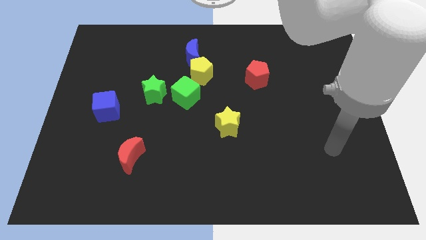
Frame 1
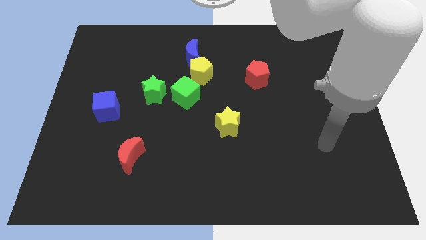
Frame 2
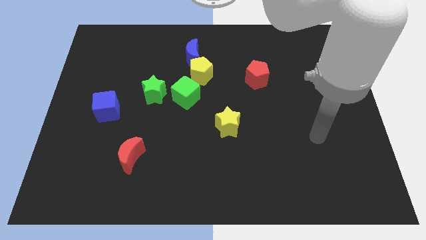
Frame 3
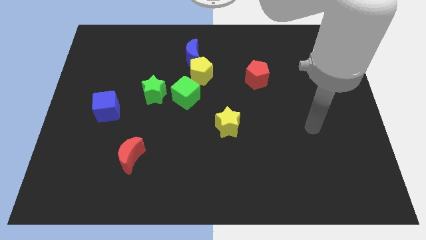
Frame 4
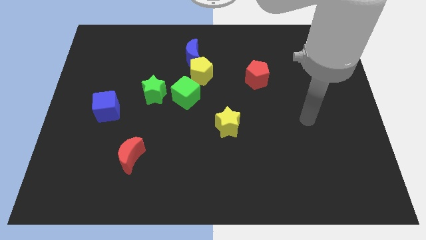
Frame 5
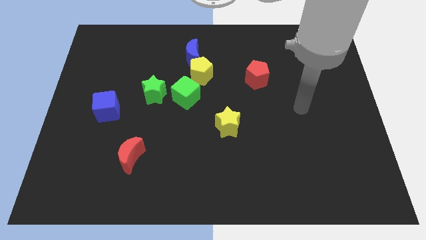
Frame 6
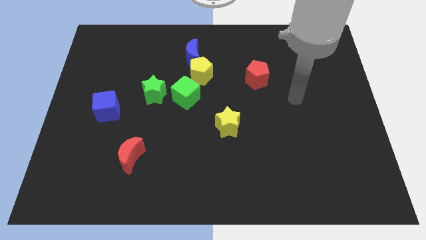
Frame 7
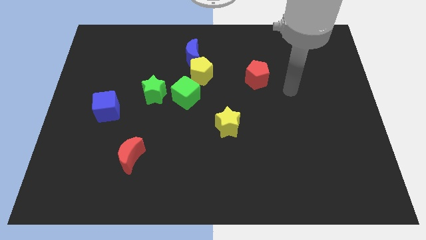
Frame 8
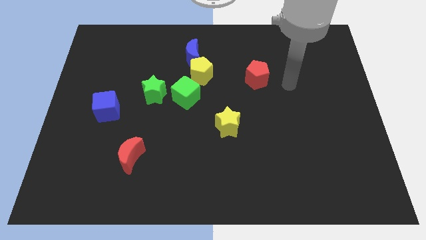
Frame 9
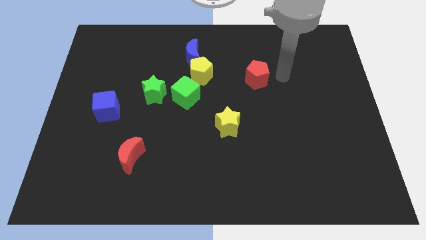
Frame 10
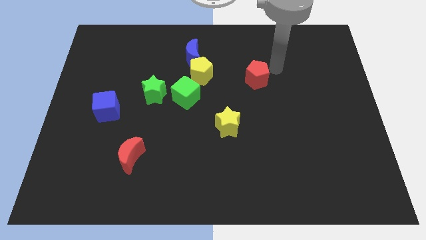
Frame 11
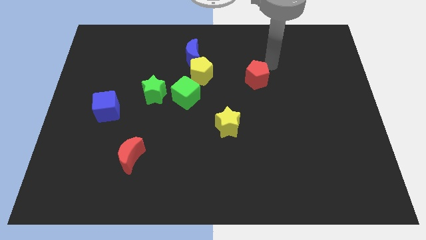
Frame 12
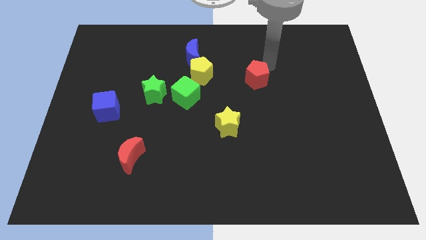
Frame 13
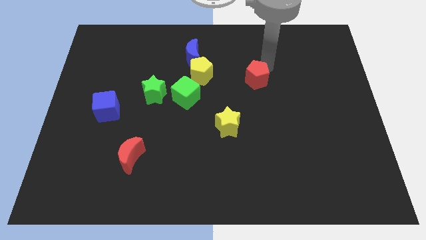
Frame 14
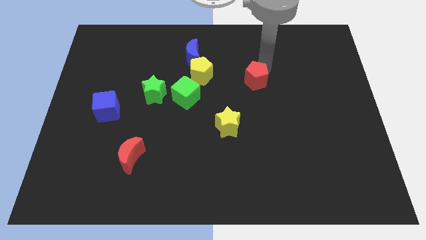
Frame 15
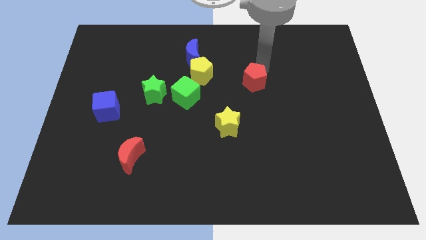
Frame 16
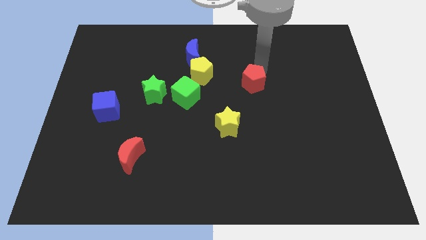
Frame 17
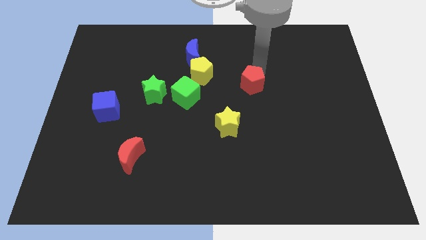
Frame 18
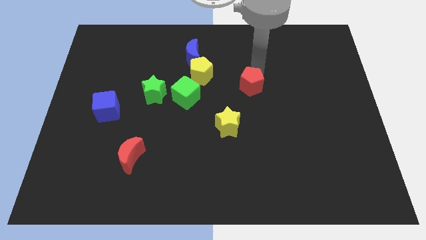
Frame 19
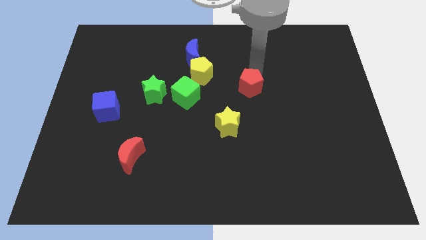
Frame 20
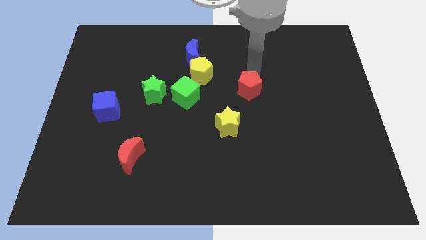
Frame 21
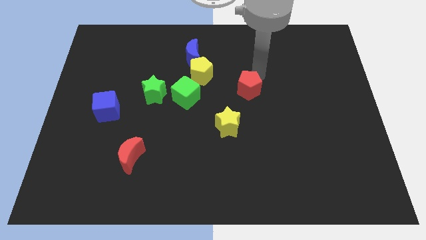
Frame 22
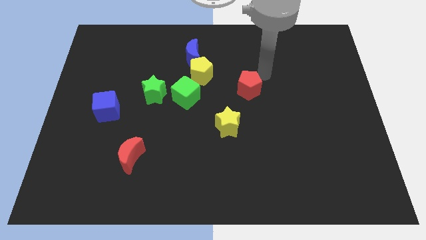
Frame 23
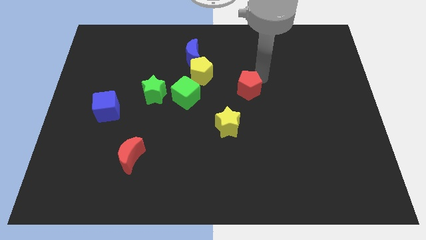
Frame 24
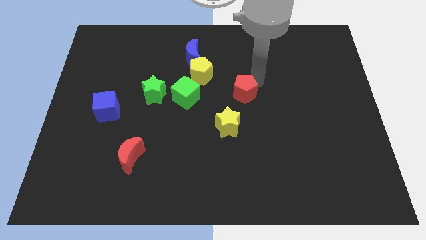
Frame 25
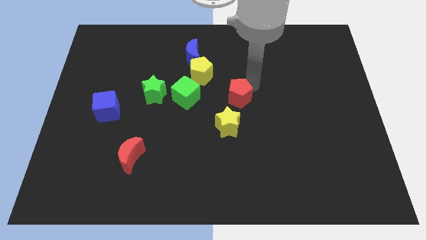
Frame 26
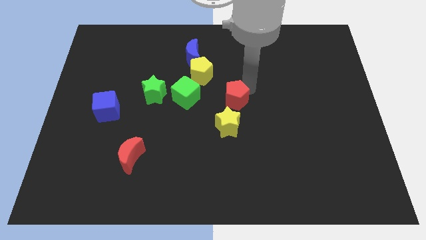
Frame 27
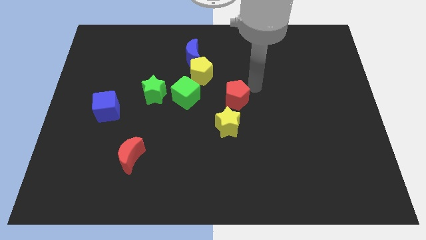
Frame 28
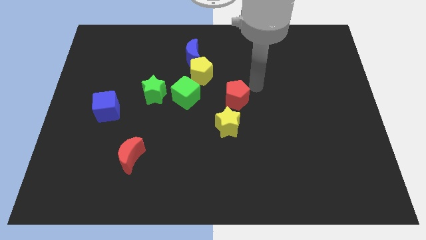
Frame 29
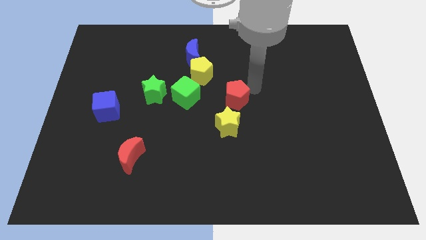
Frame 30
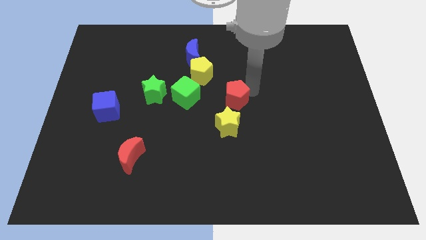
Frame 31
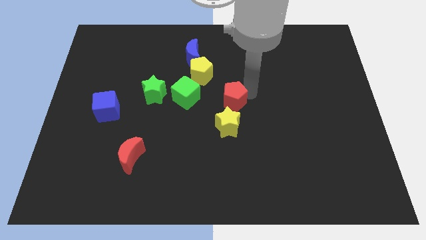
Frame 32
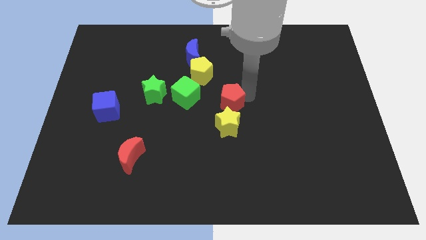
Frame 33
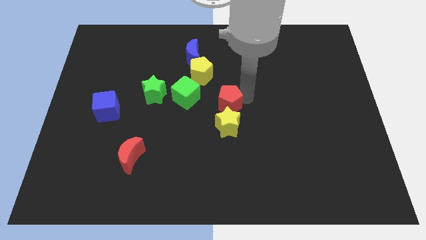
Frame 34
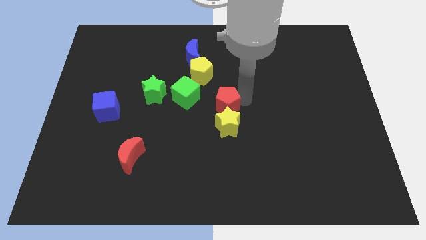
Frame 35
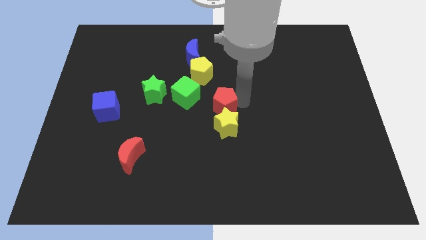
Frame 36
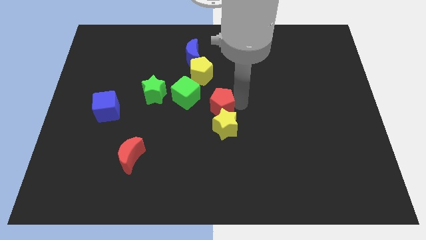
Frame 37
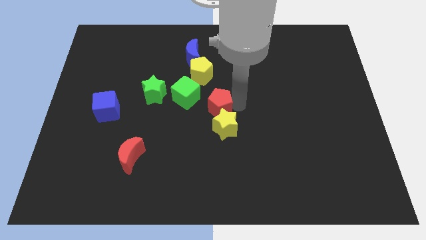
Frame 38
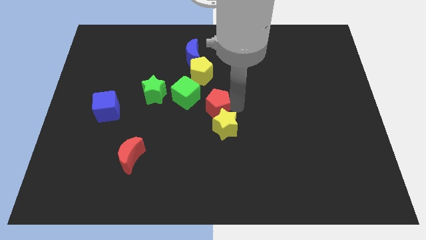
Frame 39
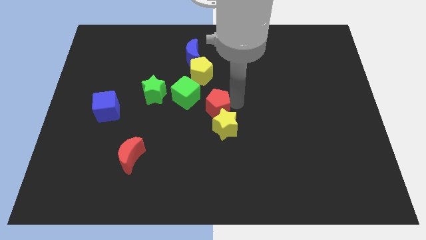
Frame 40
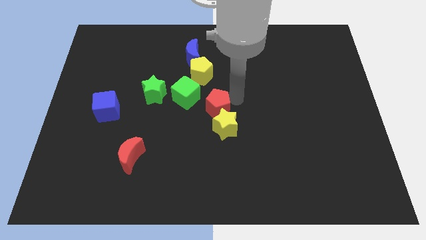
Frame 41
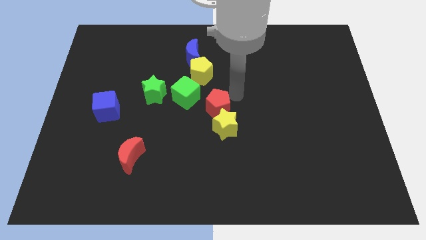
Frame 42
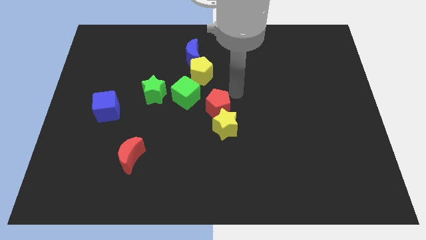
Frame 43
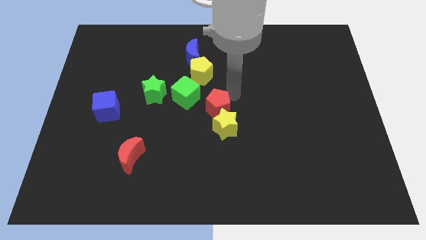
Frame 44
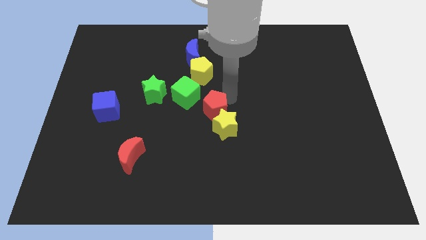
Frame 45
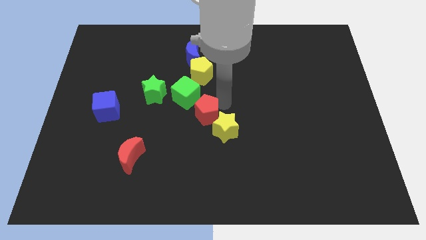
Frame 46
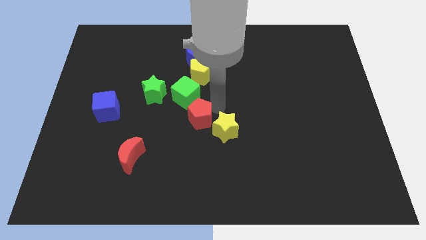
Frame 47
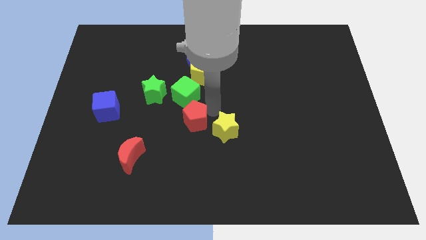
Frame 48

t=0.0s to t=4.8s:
slide the red pentagon down and to the left diagonally

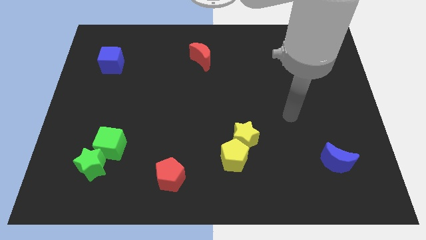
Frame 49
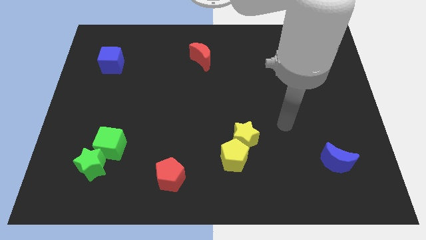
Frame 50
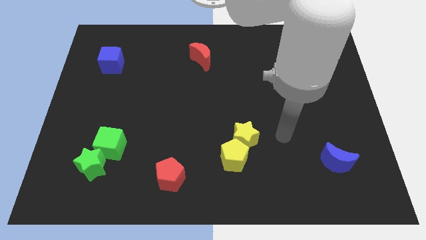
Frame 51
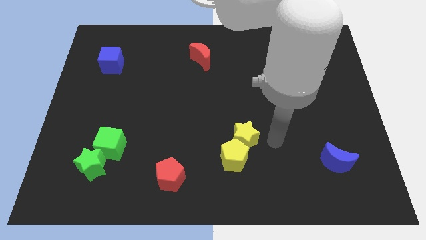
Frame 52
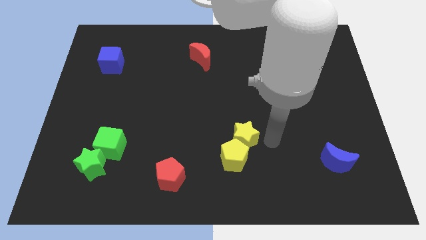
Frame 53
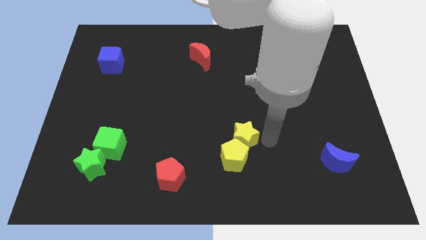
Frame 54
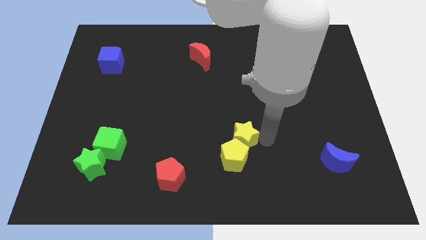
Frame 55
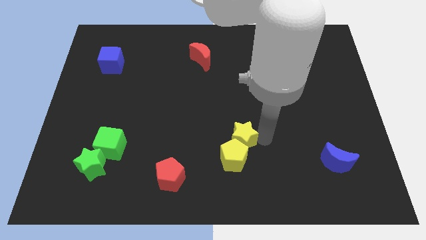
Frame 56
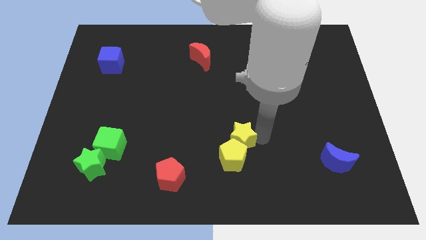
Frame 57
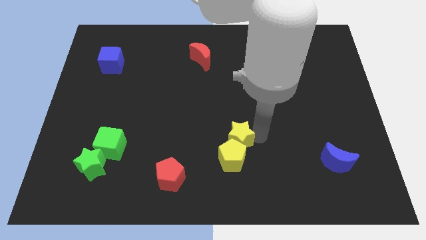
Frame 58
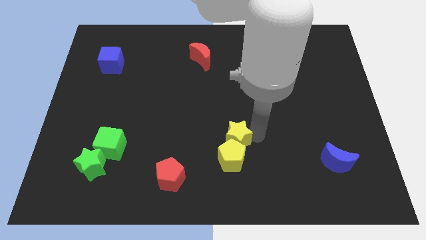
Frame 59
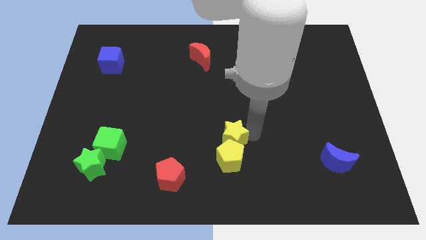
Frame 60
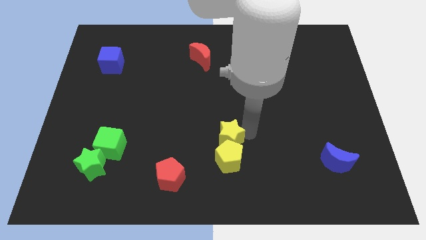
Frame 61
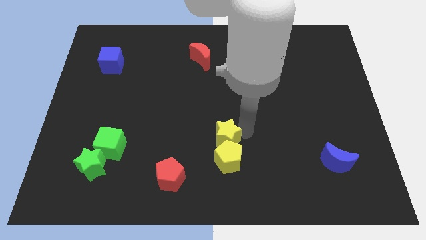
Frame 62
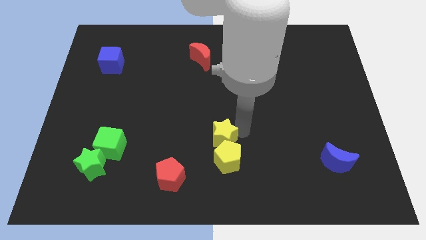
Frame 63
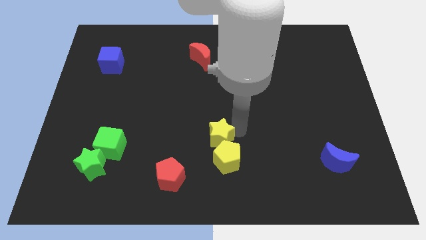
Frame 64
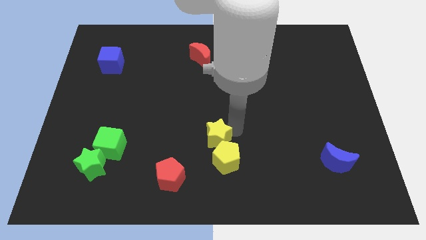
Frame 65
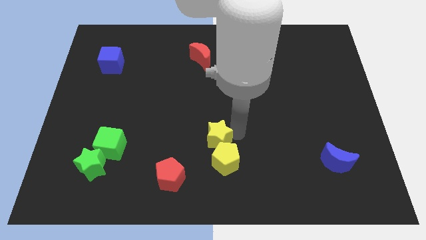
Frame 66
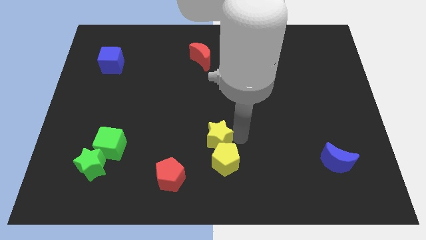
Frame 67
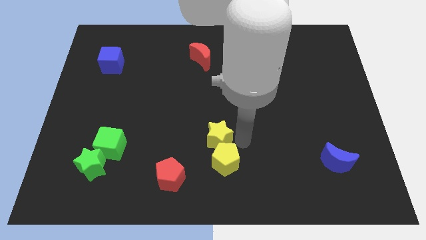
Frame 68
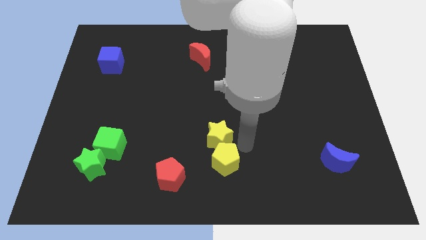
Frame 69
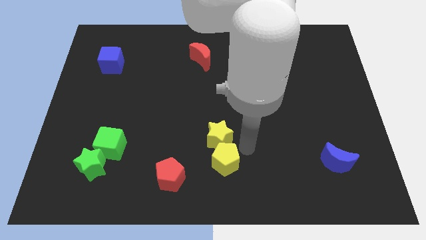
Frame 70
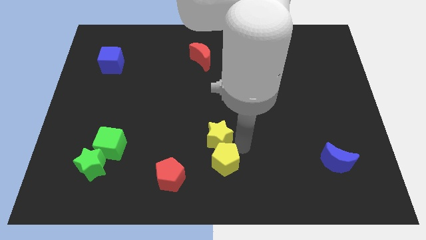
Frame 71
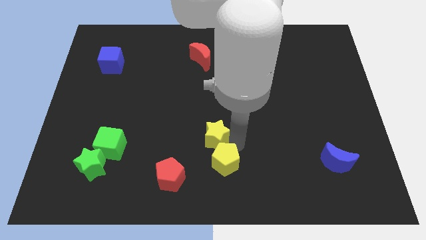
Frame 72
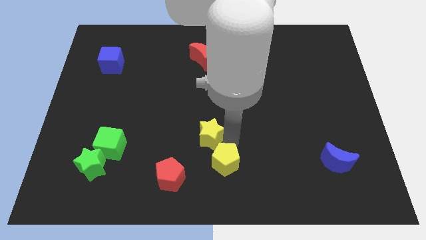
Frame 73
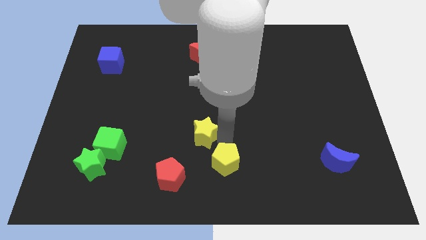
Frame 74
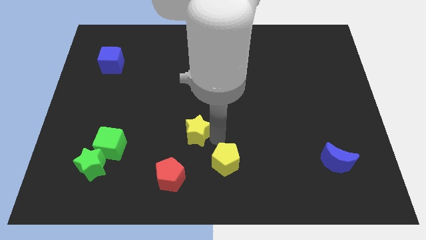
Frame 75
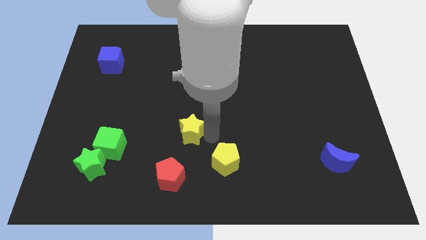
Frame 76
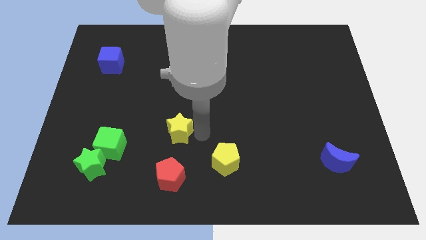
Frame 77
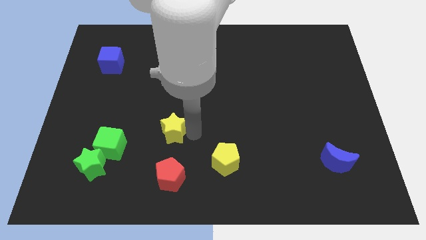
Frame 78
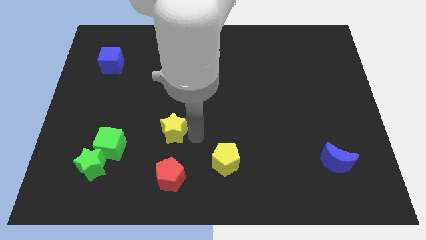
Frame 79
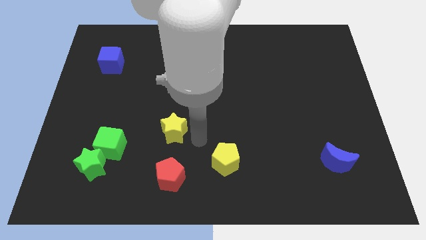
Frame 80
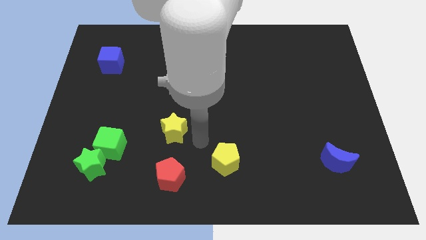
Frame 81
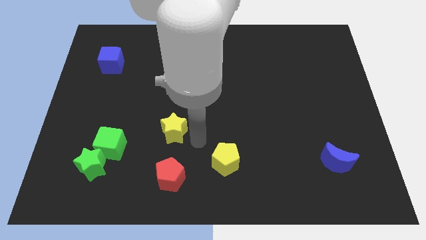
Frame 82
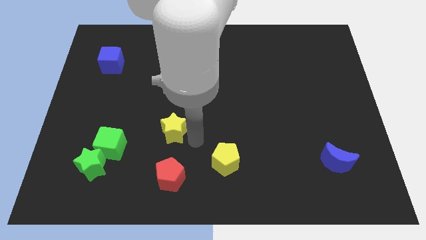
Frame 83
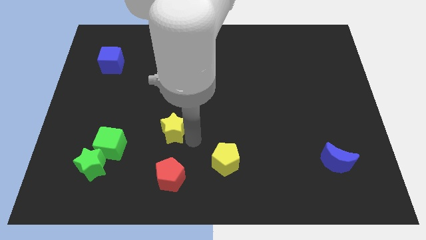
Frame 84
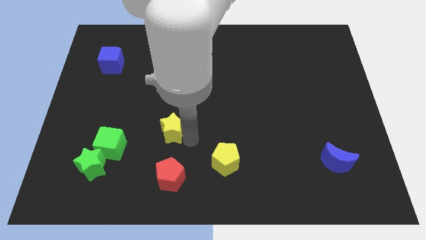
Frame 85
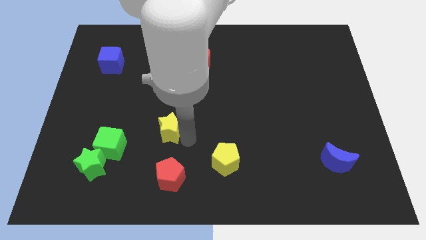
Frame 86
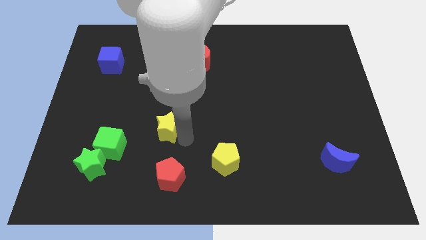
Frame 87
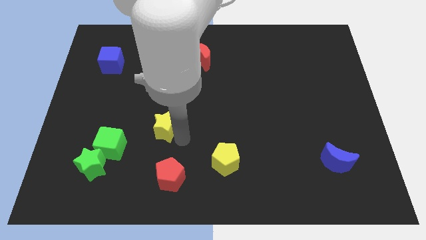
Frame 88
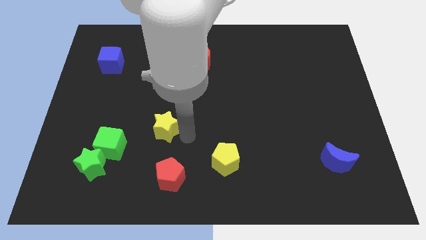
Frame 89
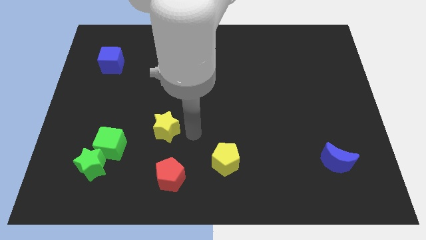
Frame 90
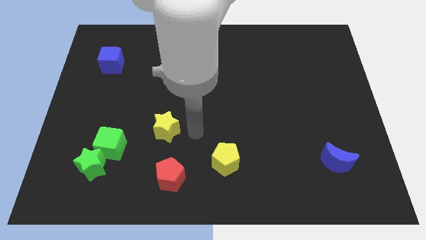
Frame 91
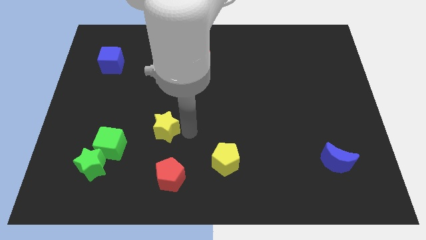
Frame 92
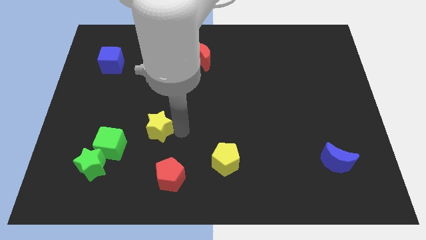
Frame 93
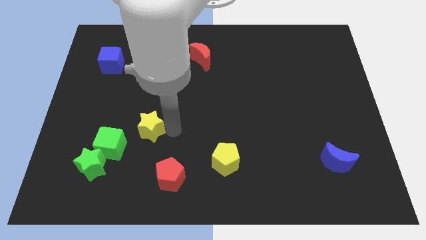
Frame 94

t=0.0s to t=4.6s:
push the yellow star to the left
